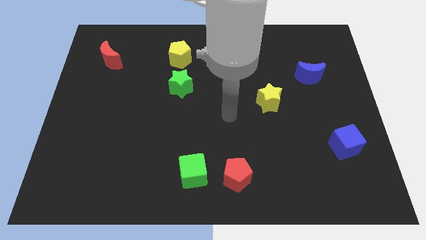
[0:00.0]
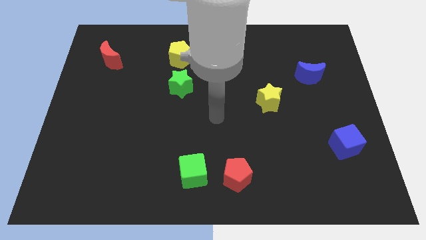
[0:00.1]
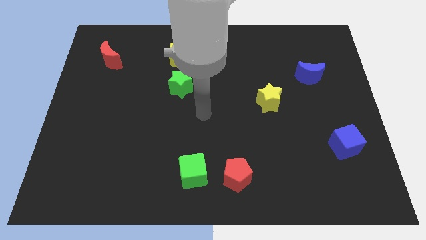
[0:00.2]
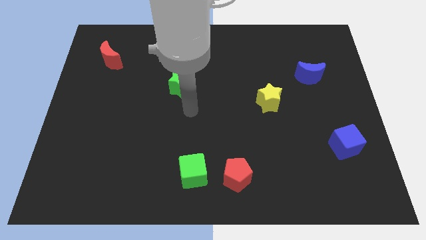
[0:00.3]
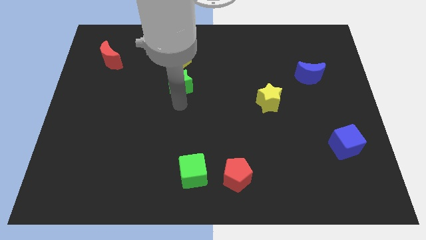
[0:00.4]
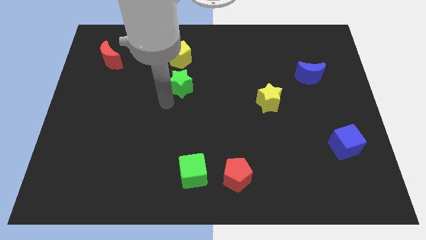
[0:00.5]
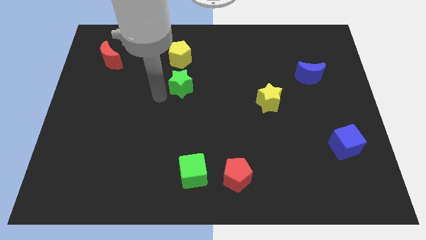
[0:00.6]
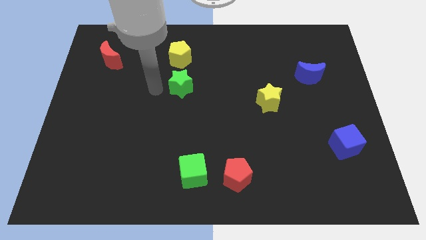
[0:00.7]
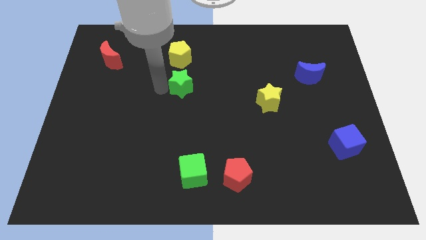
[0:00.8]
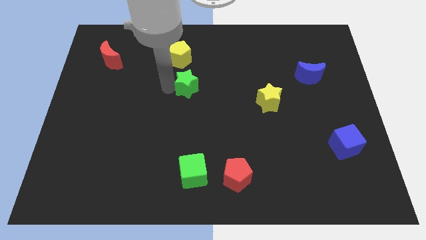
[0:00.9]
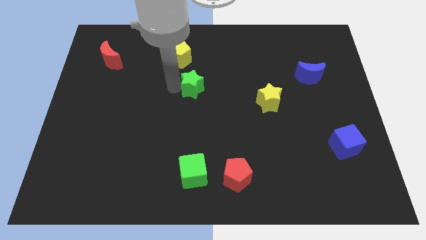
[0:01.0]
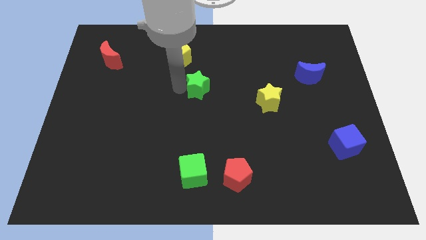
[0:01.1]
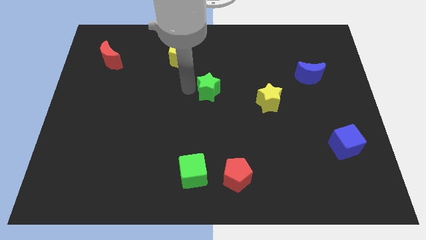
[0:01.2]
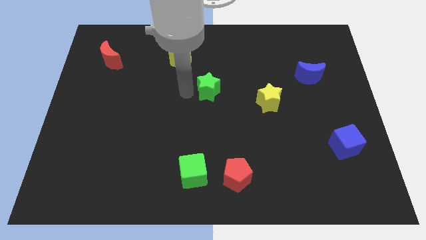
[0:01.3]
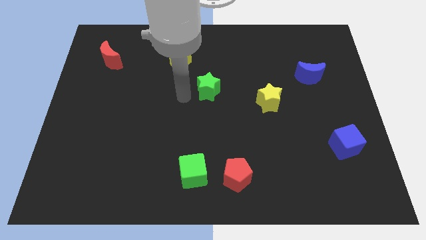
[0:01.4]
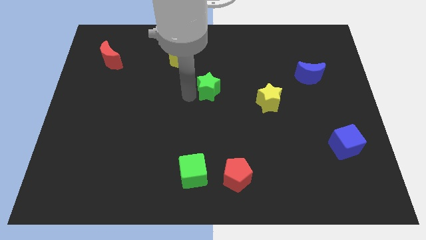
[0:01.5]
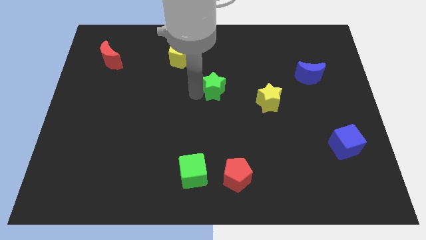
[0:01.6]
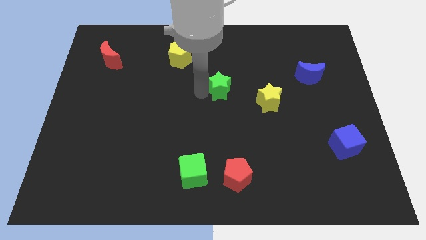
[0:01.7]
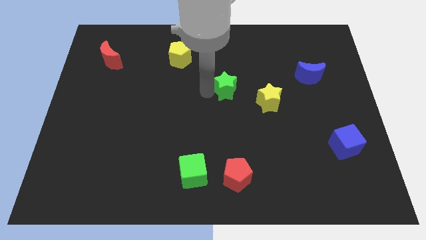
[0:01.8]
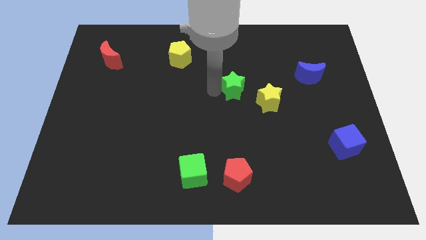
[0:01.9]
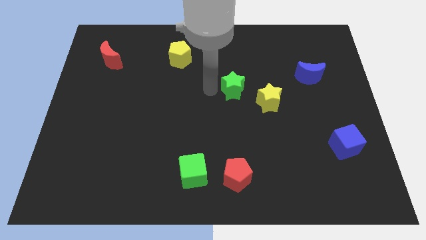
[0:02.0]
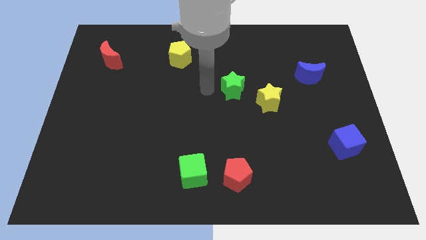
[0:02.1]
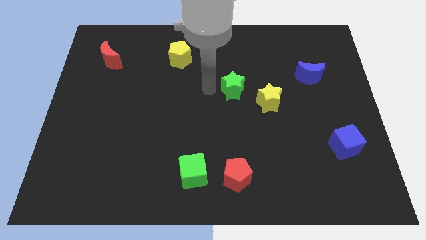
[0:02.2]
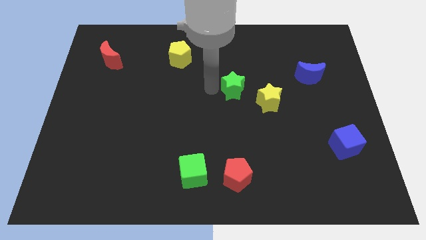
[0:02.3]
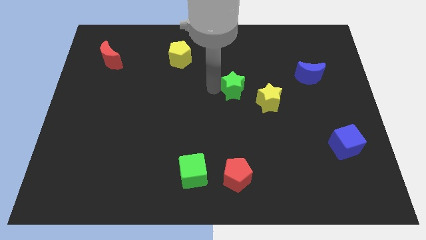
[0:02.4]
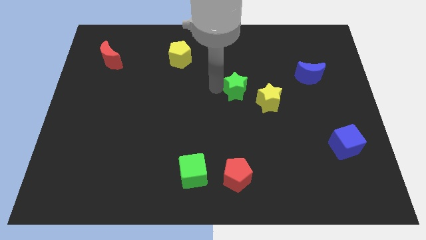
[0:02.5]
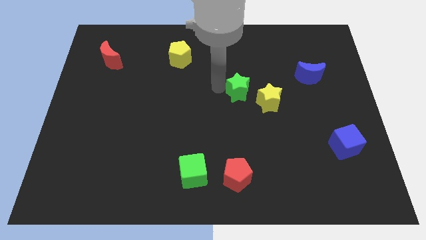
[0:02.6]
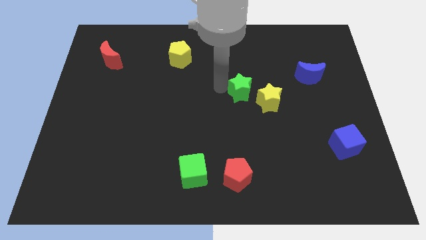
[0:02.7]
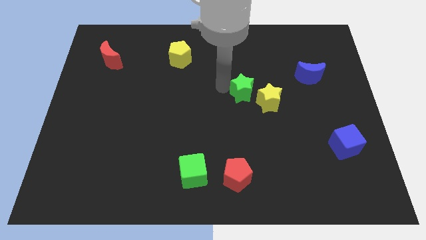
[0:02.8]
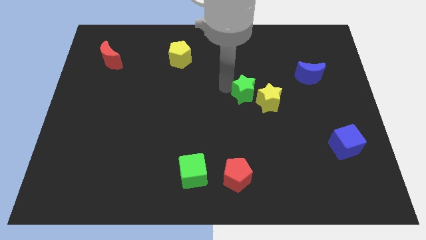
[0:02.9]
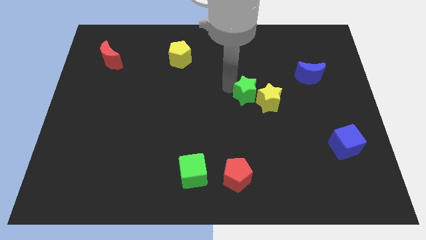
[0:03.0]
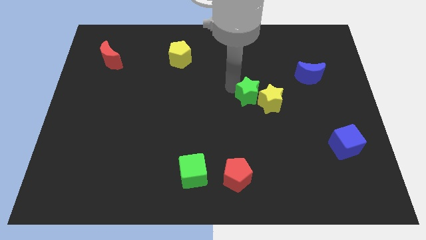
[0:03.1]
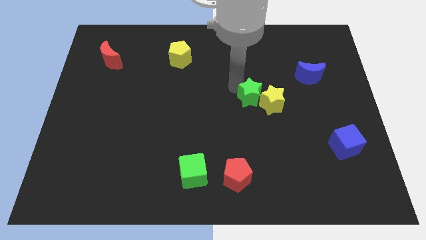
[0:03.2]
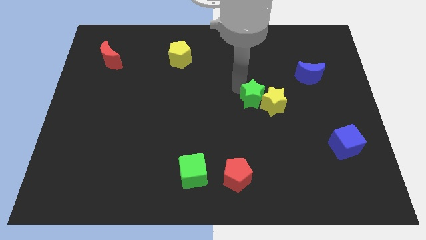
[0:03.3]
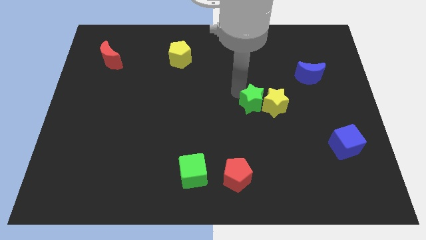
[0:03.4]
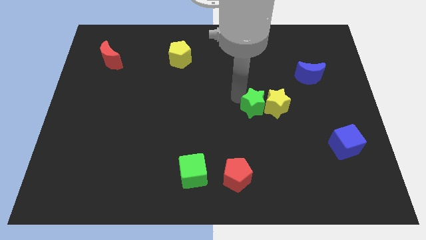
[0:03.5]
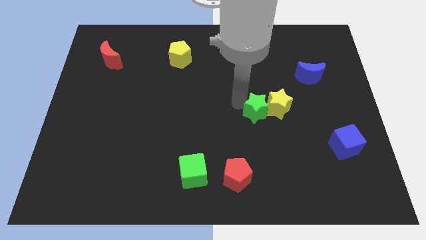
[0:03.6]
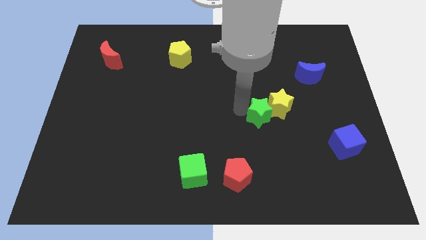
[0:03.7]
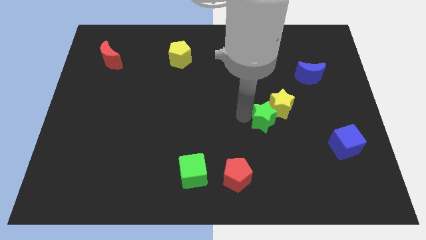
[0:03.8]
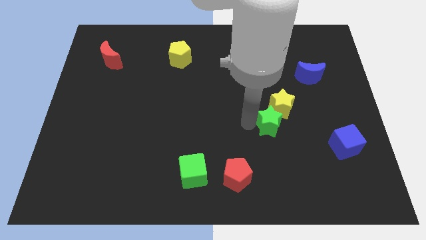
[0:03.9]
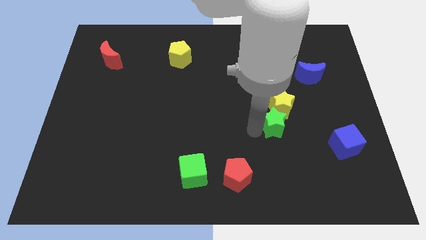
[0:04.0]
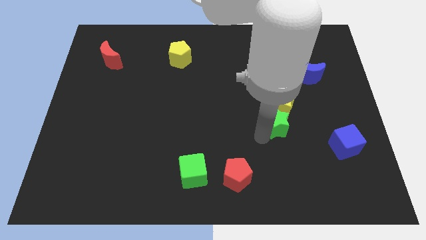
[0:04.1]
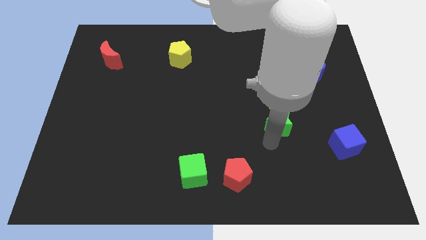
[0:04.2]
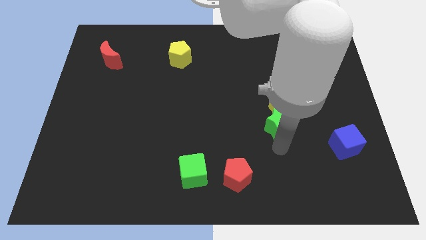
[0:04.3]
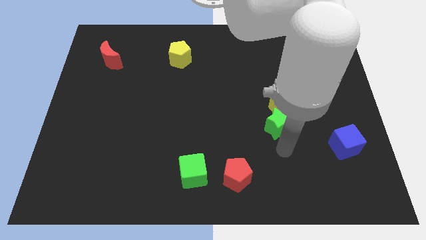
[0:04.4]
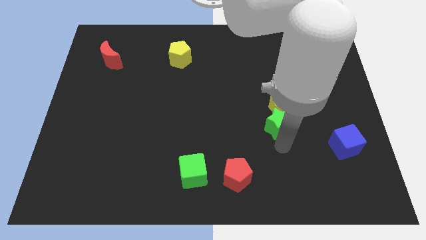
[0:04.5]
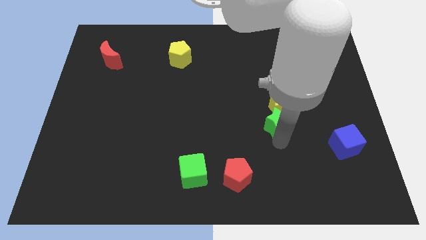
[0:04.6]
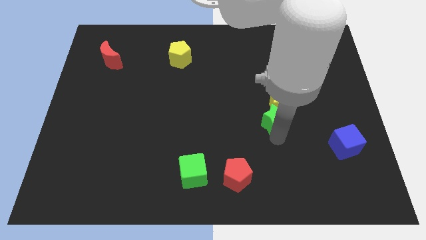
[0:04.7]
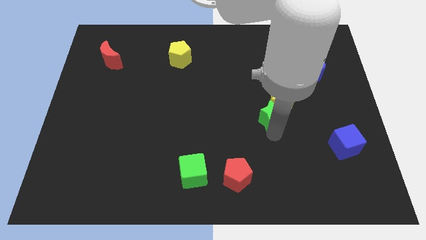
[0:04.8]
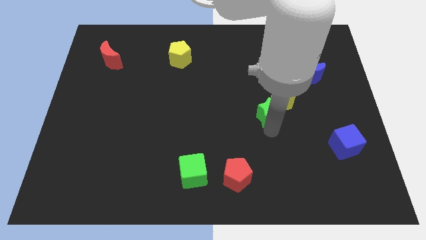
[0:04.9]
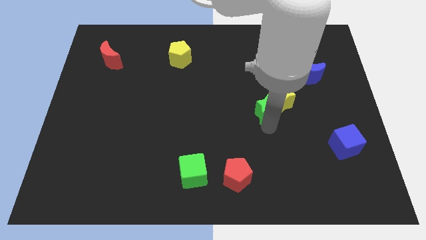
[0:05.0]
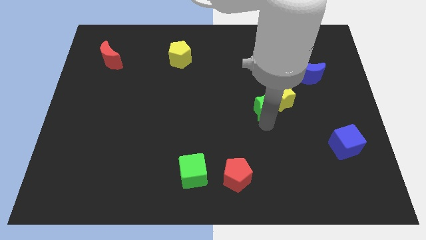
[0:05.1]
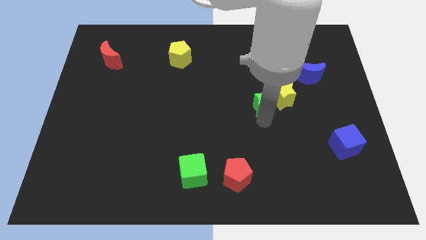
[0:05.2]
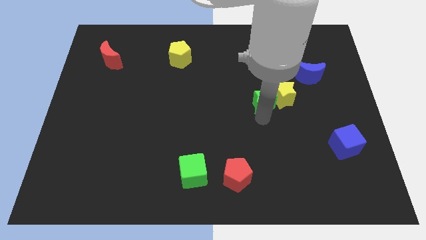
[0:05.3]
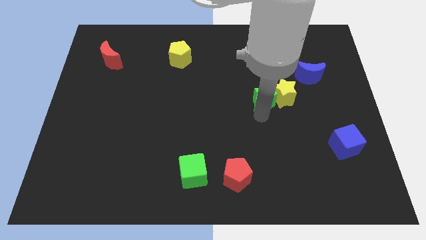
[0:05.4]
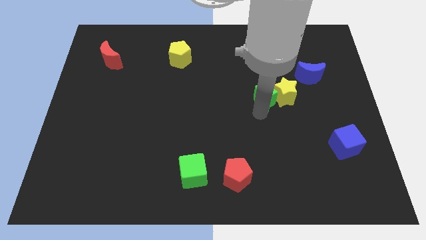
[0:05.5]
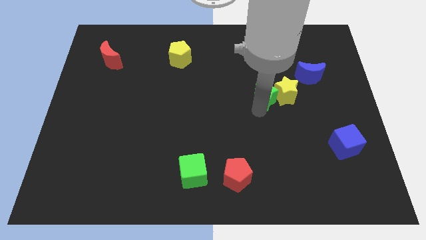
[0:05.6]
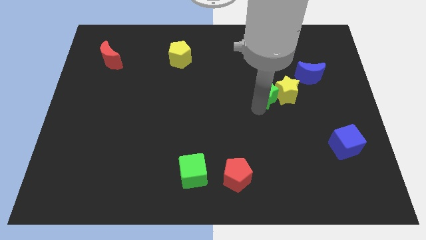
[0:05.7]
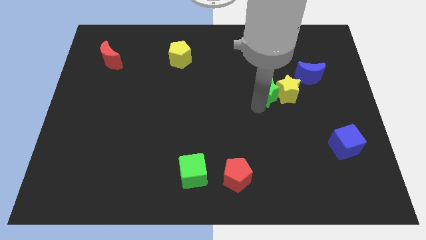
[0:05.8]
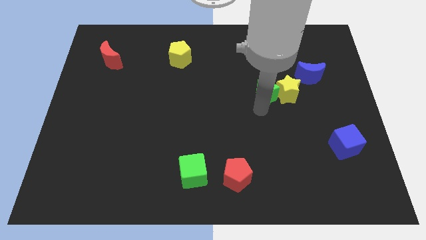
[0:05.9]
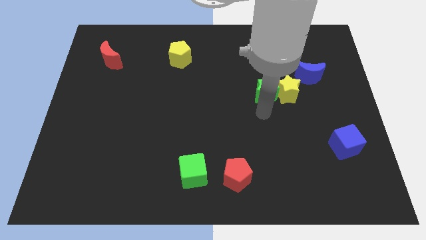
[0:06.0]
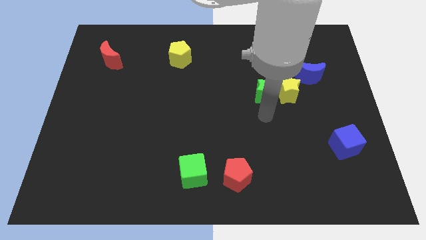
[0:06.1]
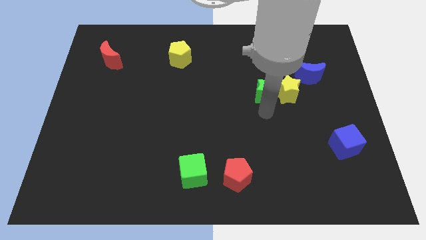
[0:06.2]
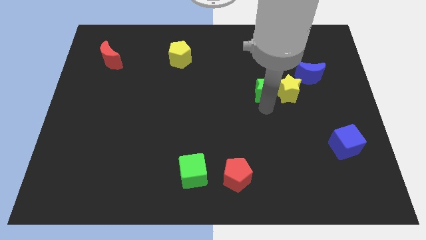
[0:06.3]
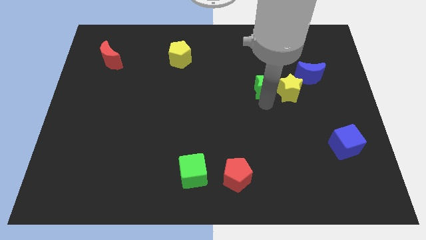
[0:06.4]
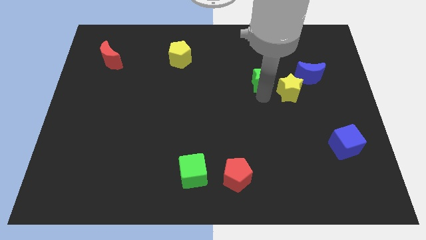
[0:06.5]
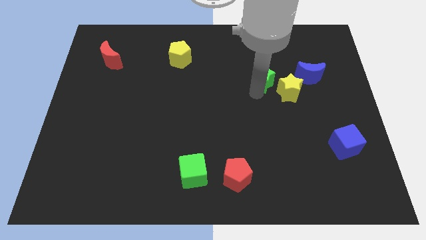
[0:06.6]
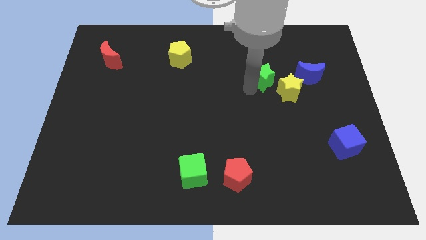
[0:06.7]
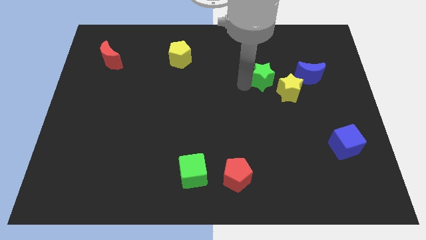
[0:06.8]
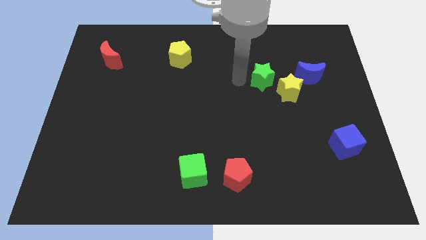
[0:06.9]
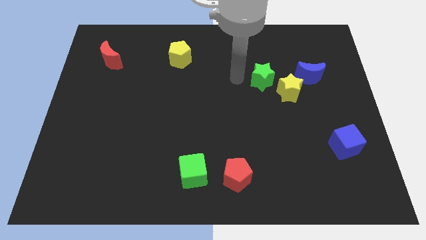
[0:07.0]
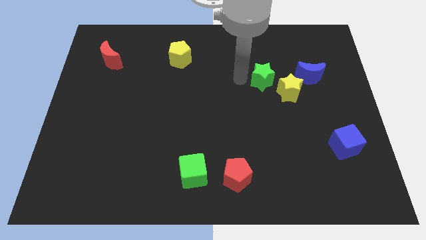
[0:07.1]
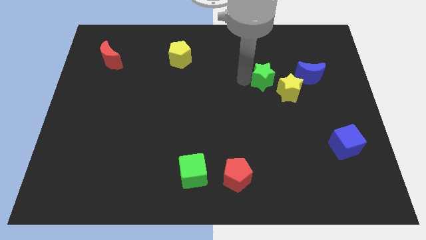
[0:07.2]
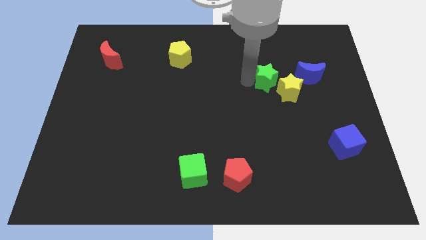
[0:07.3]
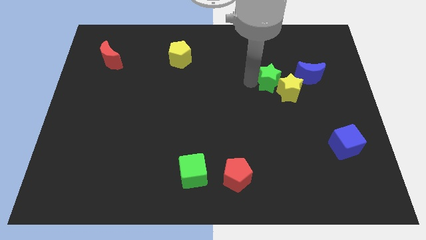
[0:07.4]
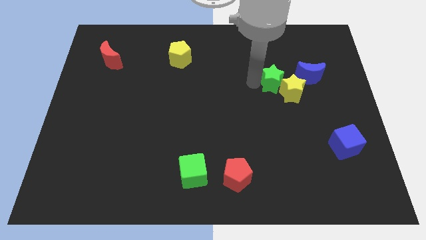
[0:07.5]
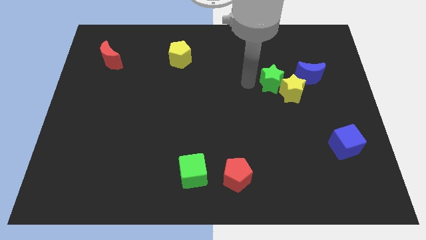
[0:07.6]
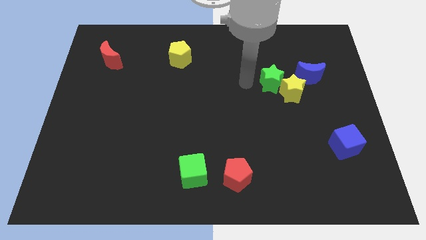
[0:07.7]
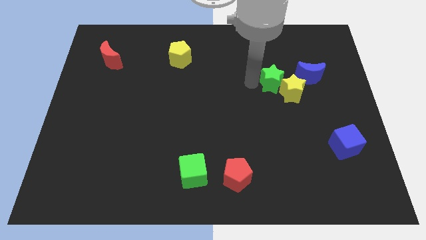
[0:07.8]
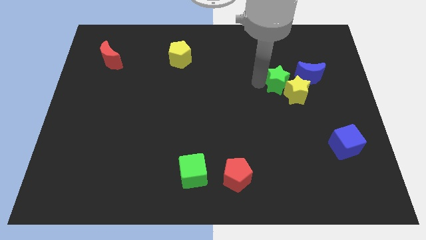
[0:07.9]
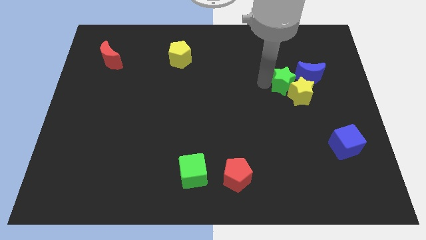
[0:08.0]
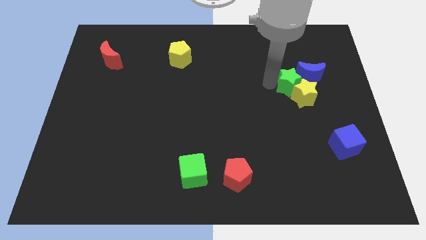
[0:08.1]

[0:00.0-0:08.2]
move the green star close to the blue moon
